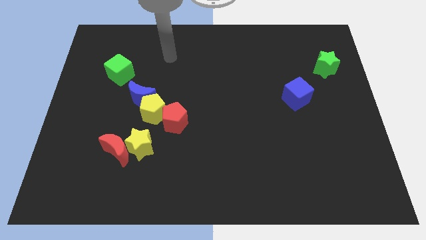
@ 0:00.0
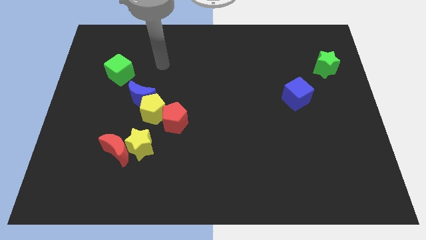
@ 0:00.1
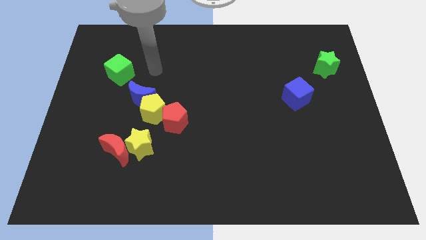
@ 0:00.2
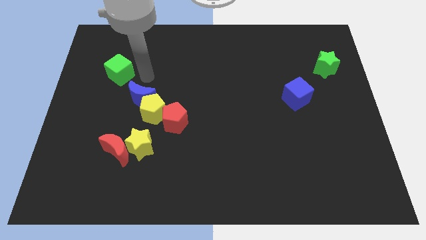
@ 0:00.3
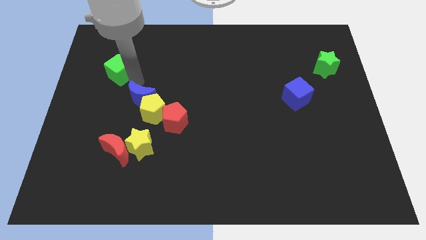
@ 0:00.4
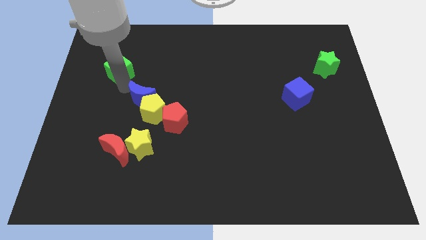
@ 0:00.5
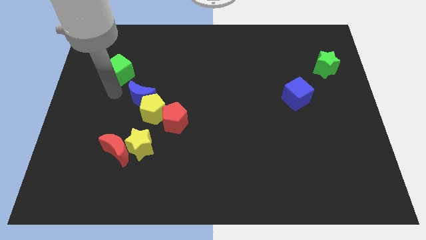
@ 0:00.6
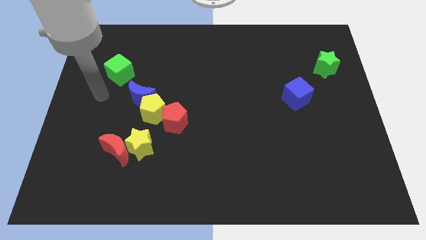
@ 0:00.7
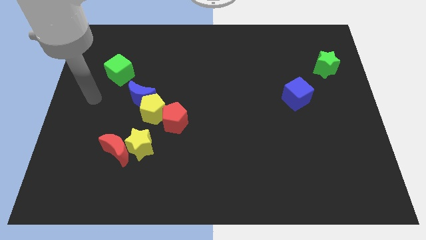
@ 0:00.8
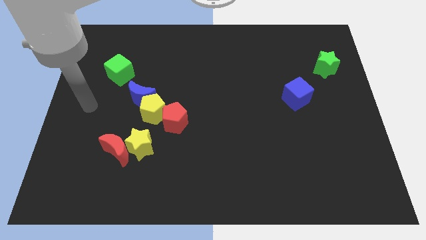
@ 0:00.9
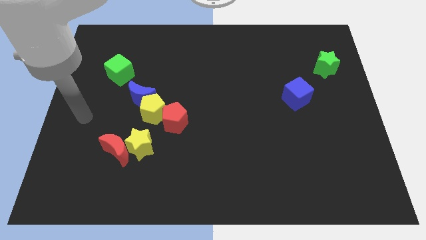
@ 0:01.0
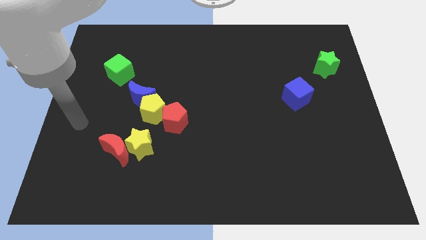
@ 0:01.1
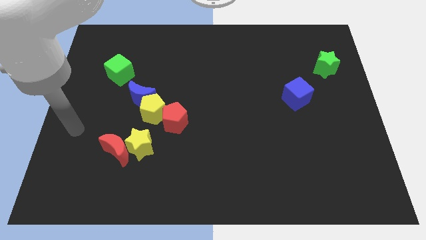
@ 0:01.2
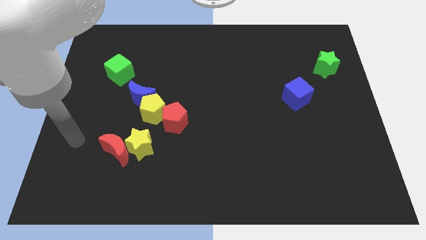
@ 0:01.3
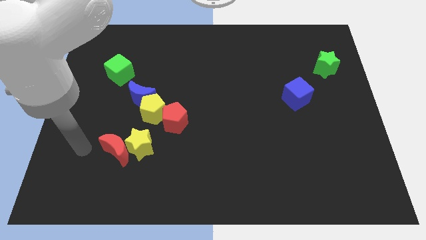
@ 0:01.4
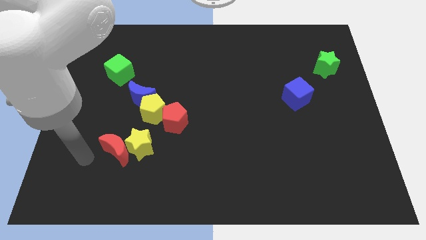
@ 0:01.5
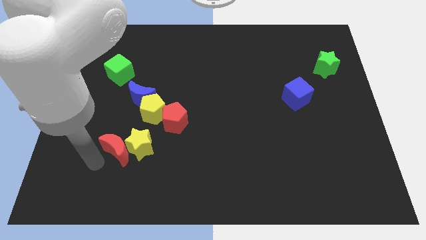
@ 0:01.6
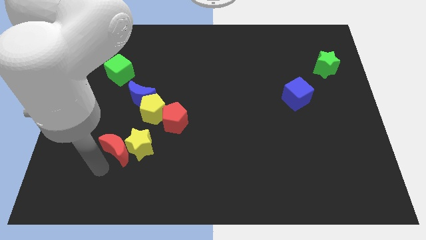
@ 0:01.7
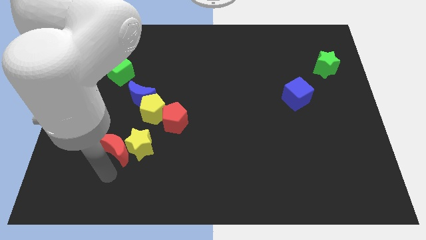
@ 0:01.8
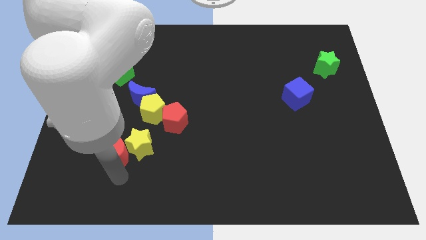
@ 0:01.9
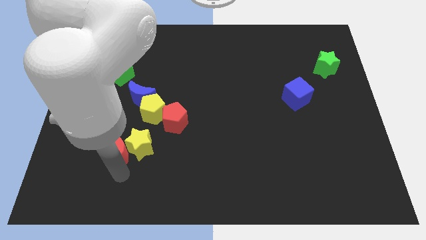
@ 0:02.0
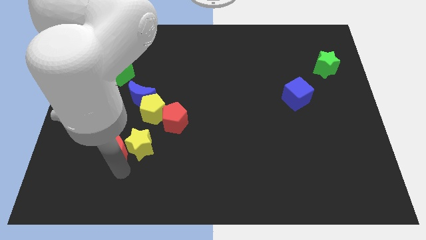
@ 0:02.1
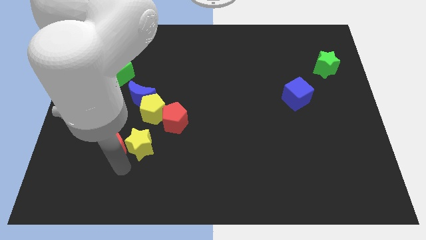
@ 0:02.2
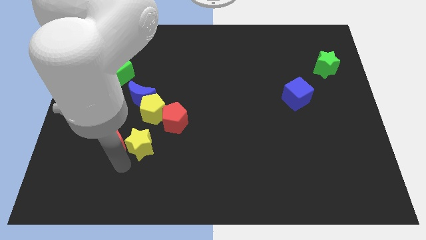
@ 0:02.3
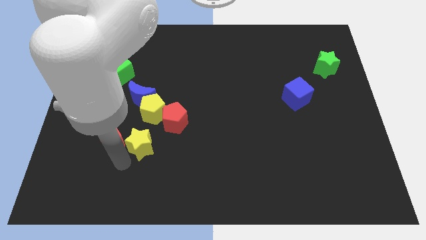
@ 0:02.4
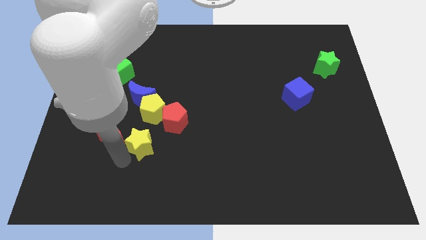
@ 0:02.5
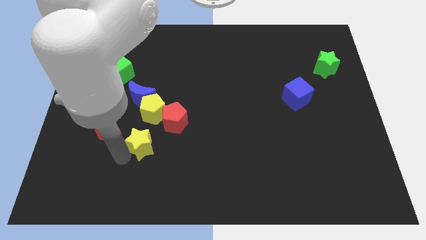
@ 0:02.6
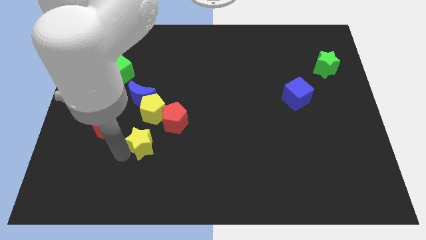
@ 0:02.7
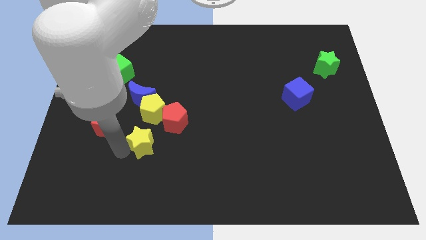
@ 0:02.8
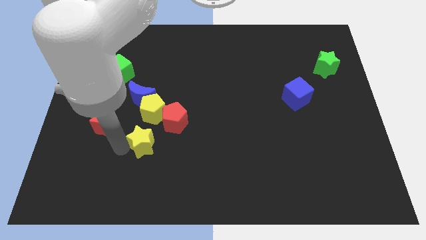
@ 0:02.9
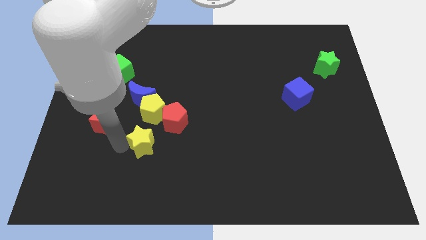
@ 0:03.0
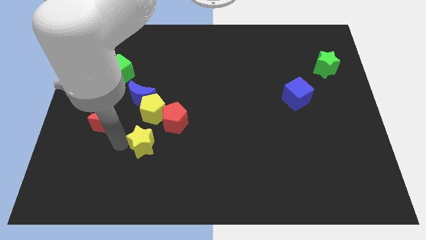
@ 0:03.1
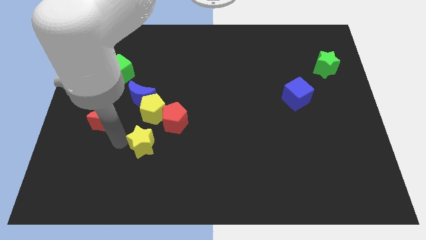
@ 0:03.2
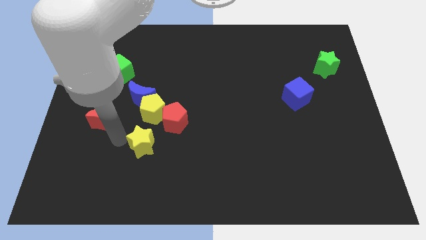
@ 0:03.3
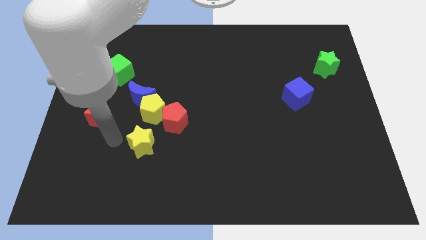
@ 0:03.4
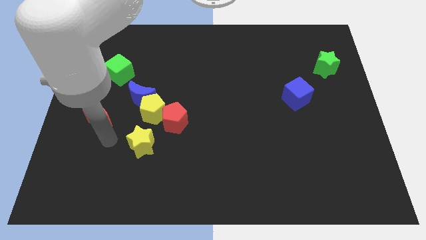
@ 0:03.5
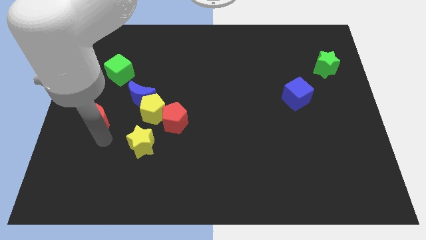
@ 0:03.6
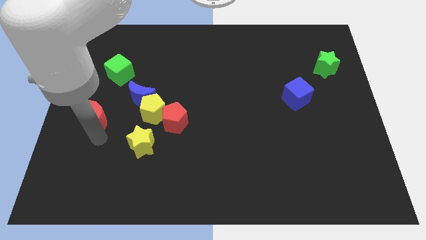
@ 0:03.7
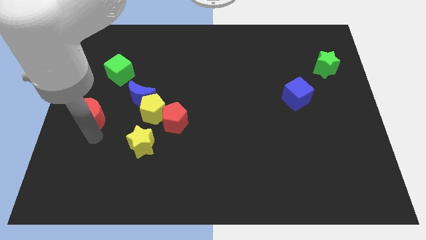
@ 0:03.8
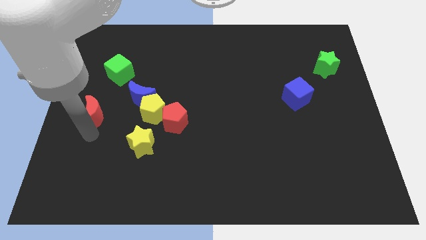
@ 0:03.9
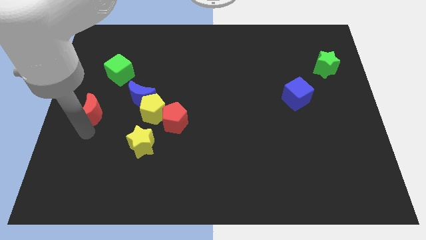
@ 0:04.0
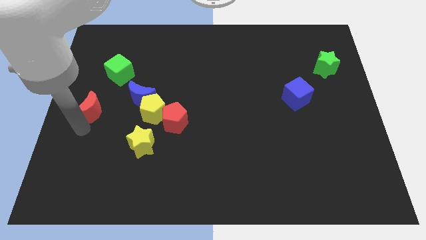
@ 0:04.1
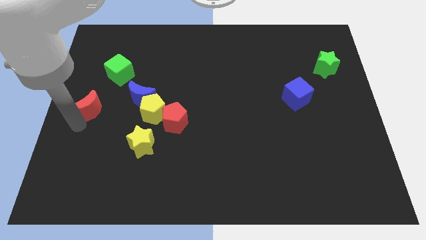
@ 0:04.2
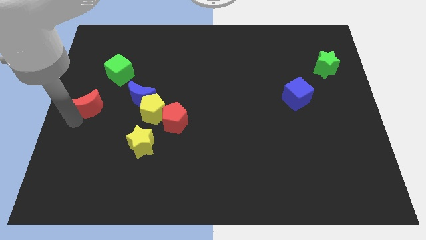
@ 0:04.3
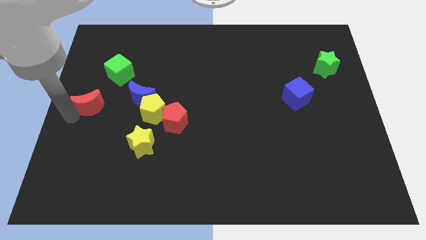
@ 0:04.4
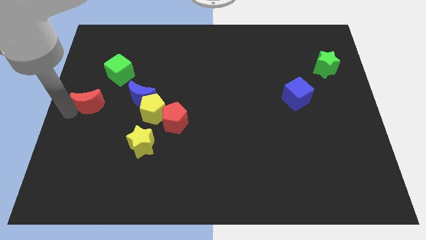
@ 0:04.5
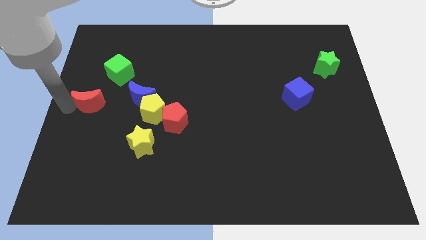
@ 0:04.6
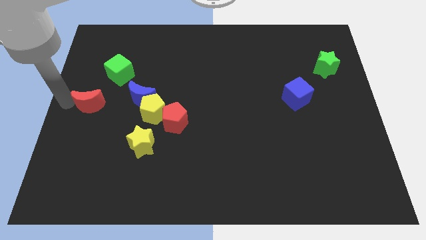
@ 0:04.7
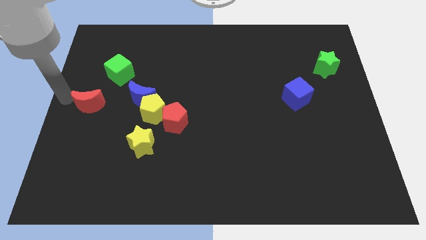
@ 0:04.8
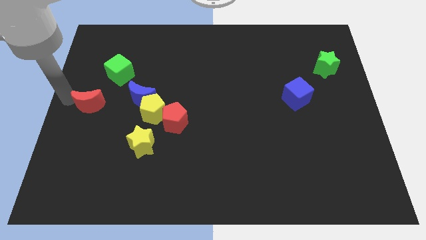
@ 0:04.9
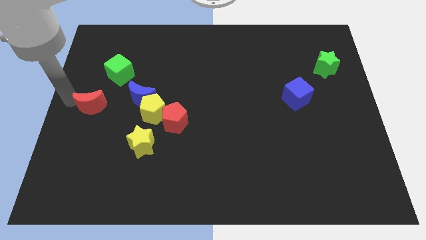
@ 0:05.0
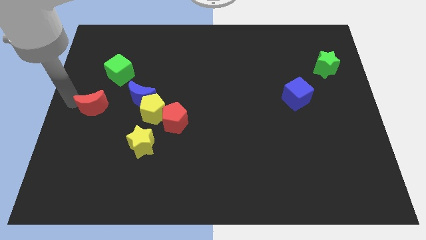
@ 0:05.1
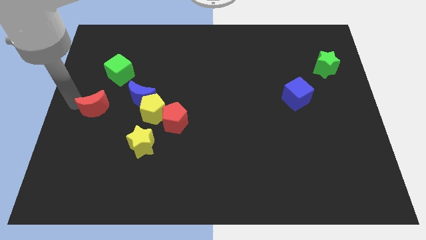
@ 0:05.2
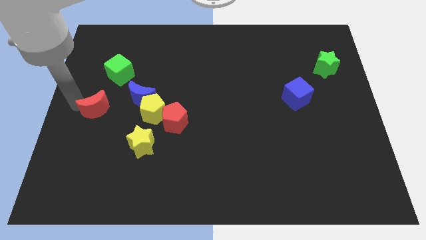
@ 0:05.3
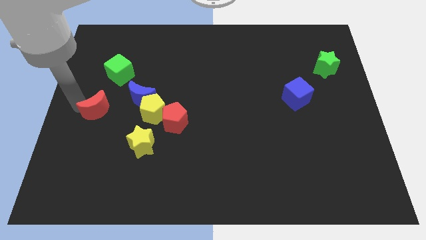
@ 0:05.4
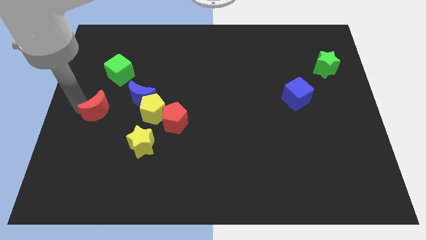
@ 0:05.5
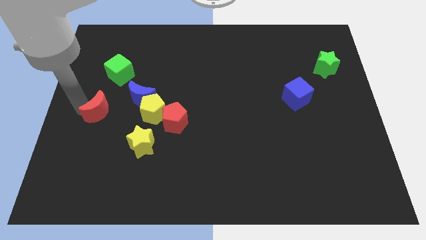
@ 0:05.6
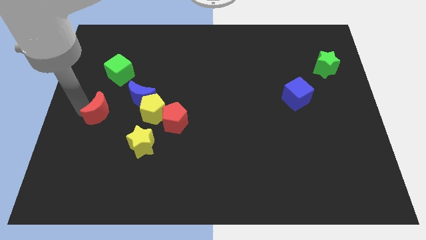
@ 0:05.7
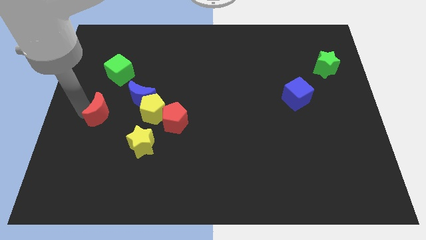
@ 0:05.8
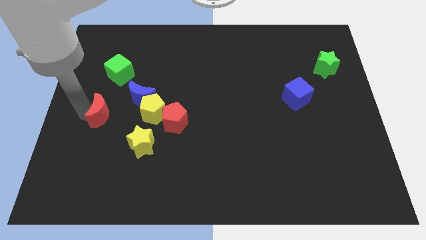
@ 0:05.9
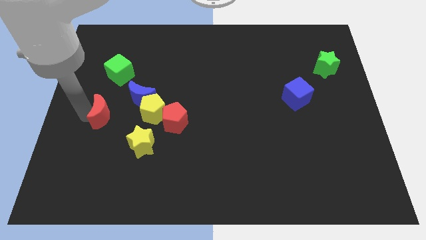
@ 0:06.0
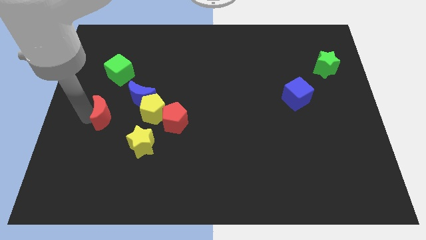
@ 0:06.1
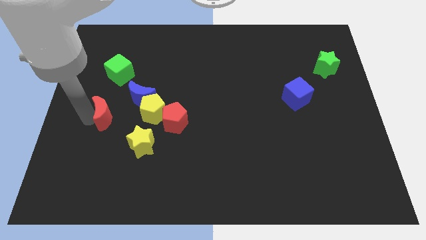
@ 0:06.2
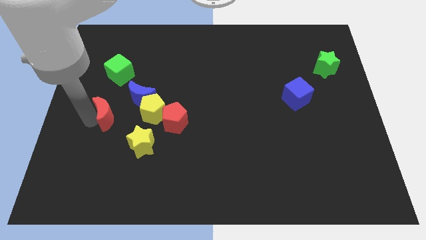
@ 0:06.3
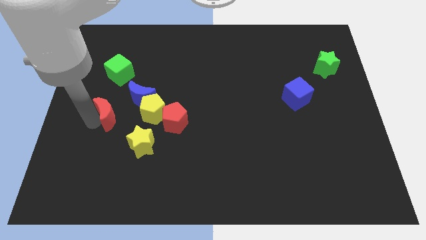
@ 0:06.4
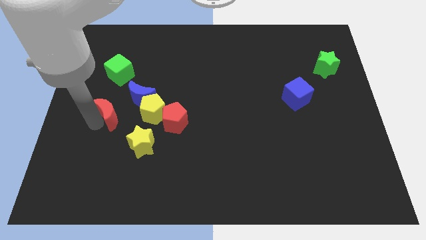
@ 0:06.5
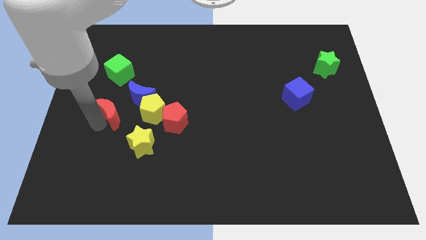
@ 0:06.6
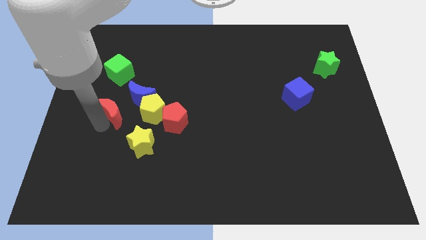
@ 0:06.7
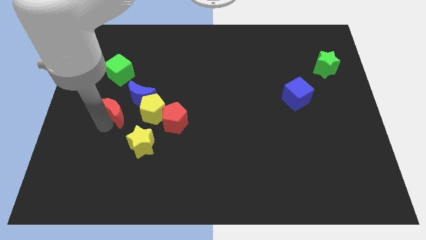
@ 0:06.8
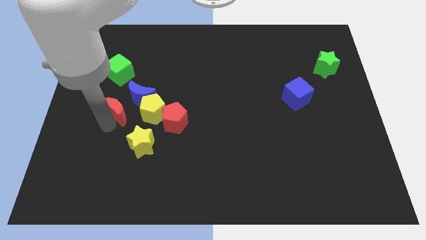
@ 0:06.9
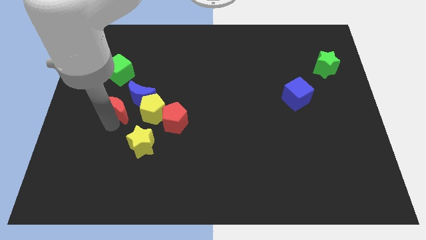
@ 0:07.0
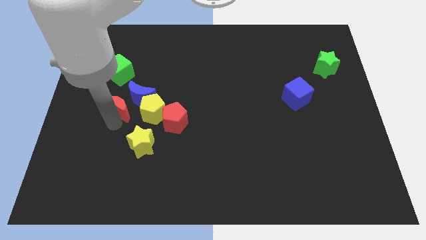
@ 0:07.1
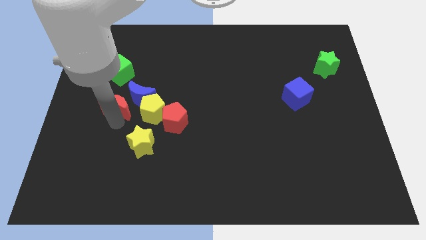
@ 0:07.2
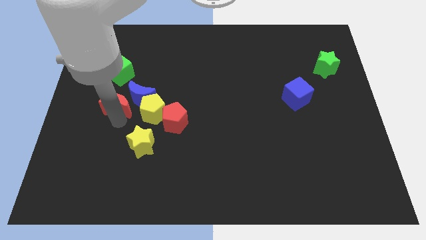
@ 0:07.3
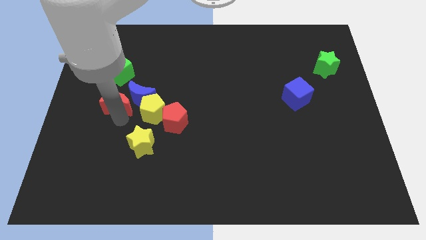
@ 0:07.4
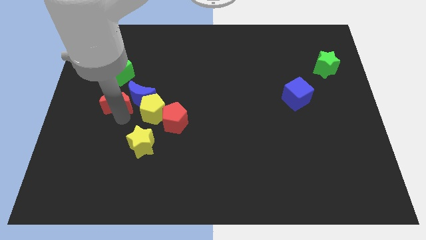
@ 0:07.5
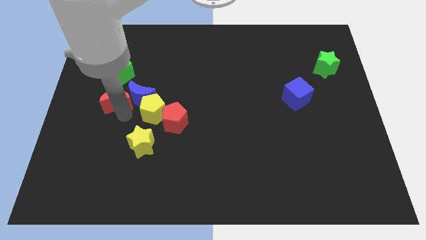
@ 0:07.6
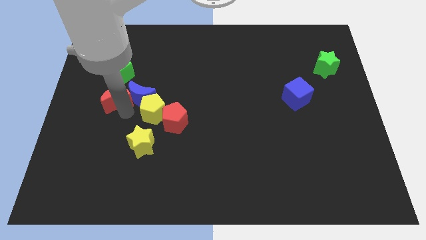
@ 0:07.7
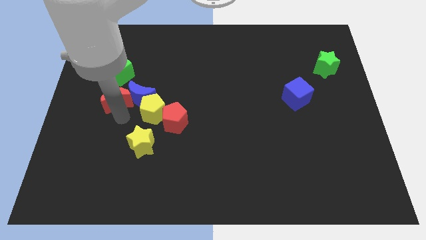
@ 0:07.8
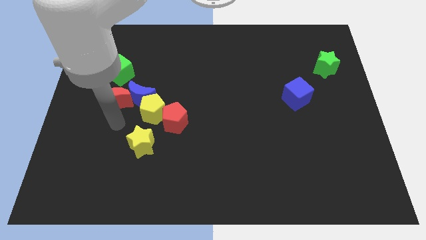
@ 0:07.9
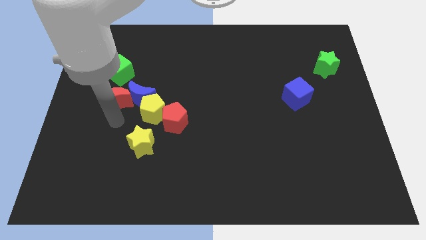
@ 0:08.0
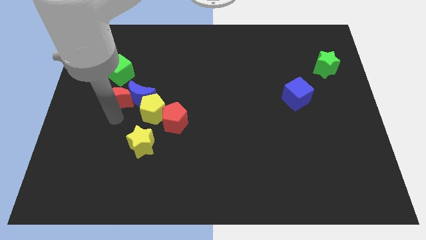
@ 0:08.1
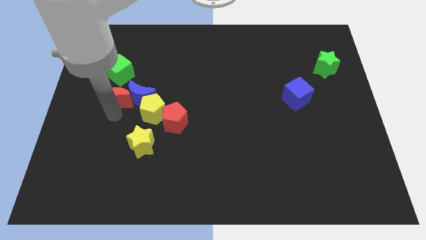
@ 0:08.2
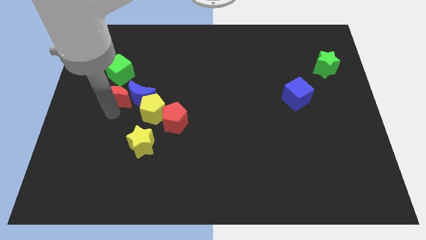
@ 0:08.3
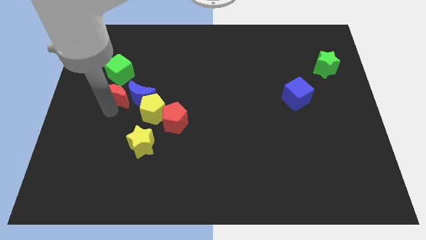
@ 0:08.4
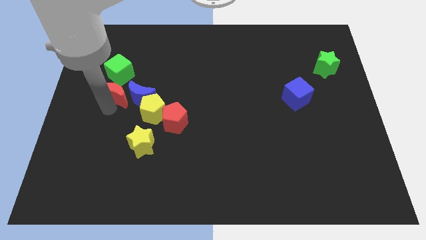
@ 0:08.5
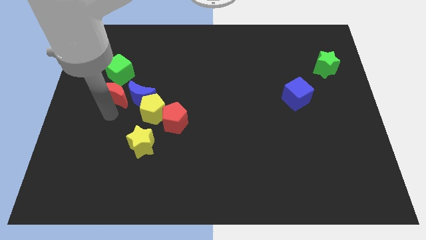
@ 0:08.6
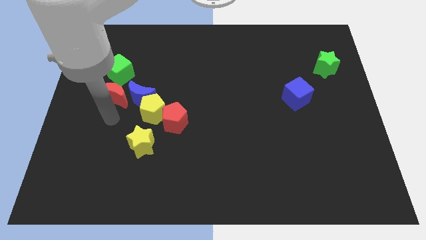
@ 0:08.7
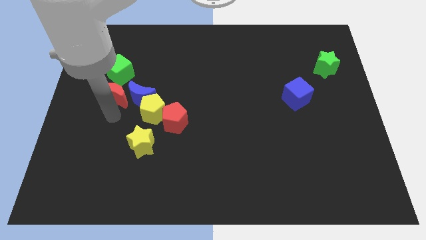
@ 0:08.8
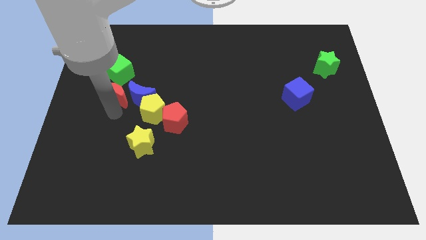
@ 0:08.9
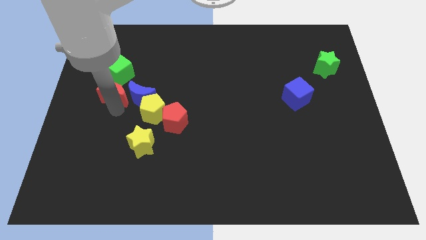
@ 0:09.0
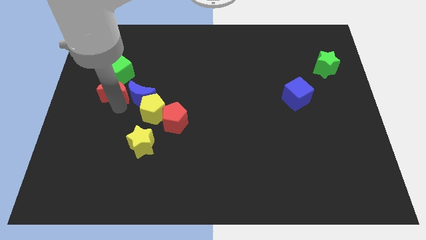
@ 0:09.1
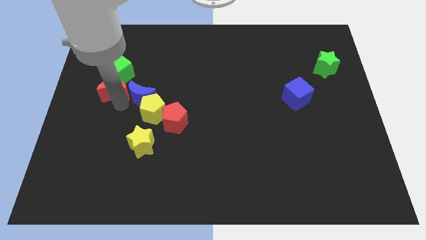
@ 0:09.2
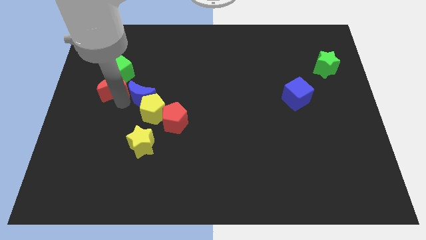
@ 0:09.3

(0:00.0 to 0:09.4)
put the red moon next to the green cube
